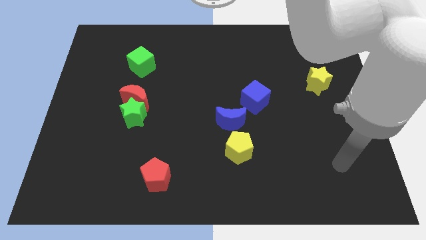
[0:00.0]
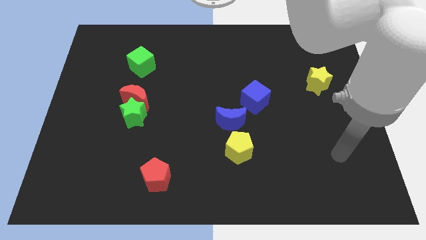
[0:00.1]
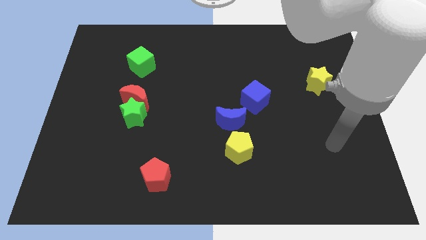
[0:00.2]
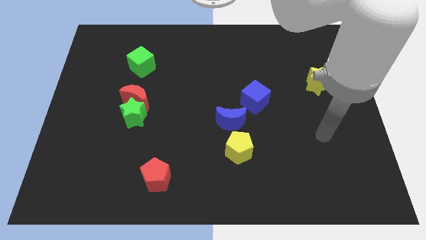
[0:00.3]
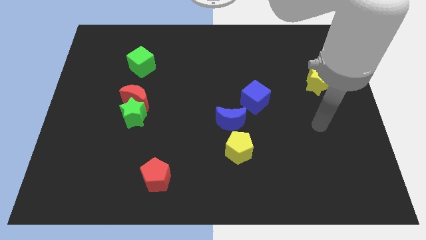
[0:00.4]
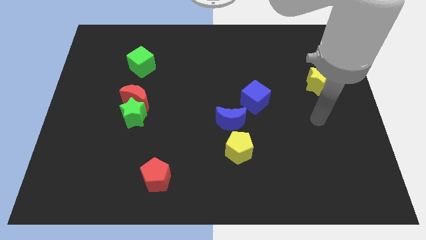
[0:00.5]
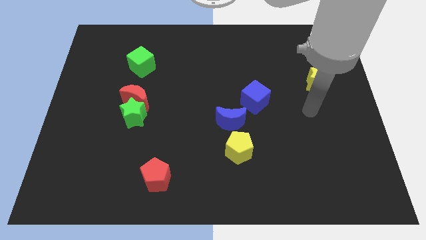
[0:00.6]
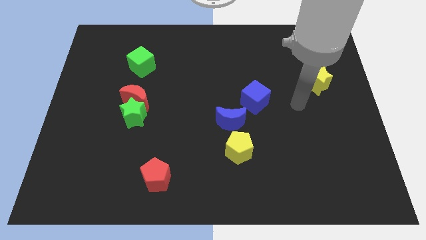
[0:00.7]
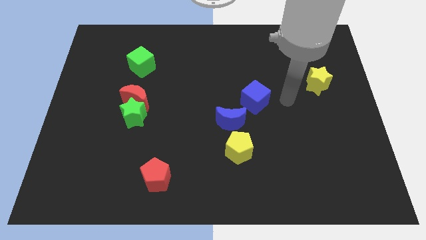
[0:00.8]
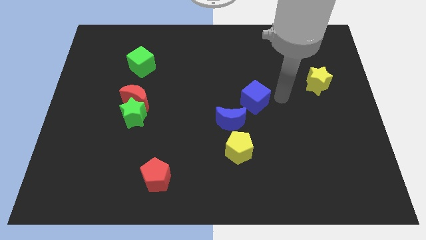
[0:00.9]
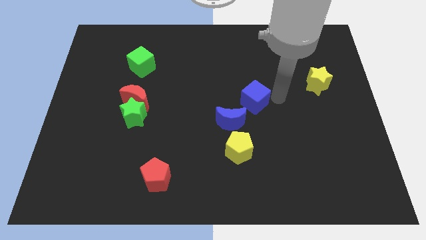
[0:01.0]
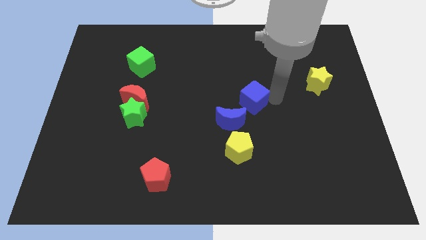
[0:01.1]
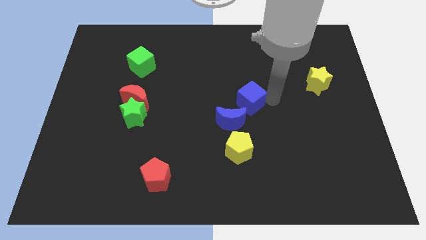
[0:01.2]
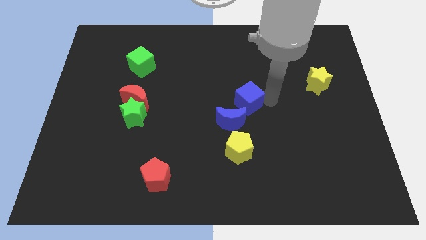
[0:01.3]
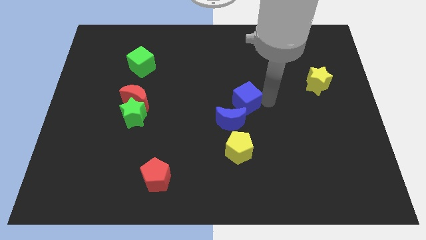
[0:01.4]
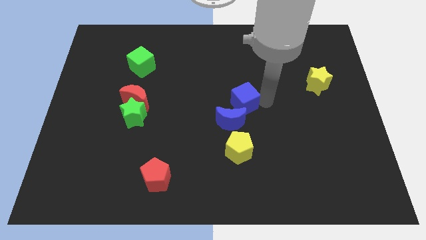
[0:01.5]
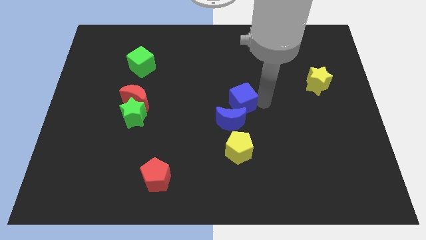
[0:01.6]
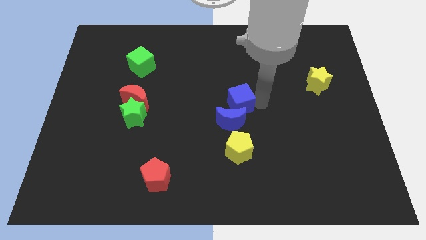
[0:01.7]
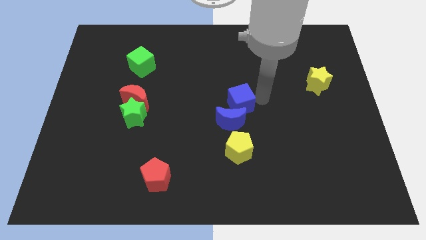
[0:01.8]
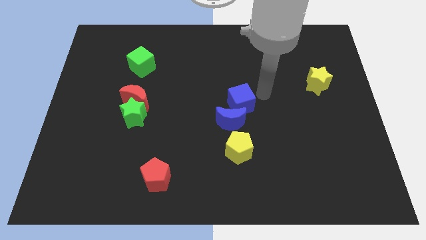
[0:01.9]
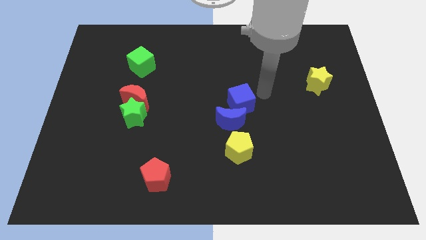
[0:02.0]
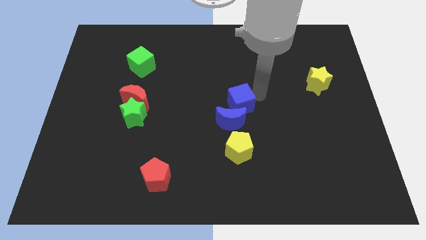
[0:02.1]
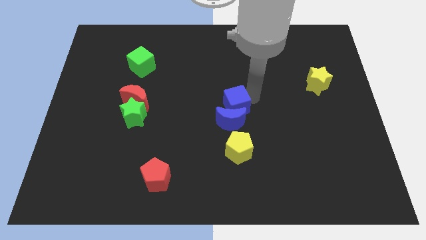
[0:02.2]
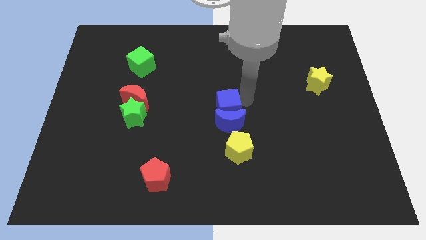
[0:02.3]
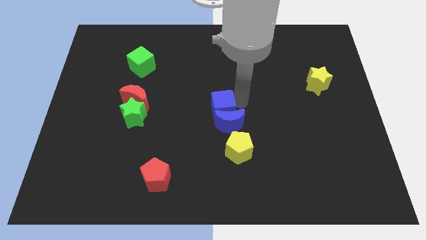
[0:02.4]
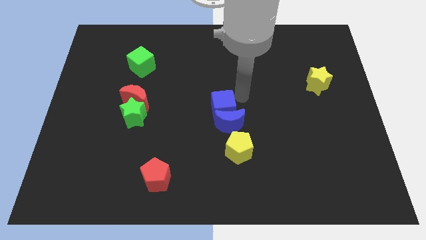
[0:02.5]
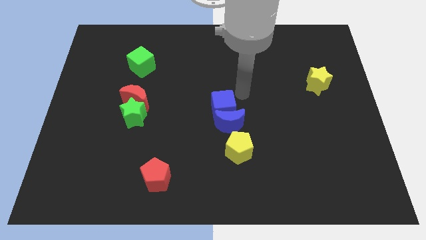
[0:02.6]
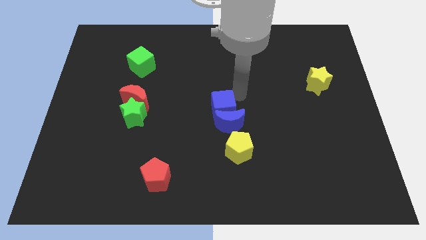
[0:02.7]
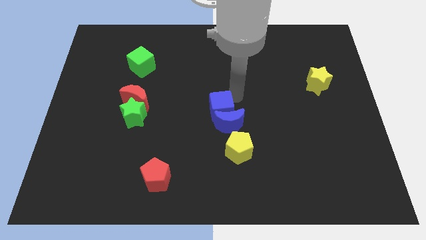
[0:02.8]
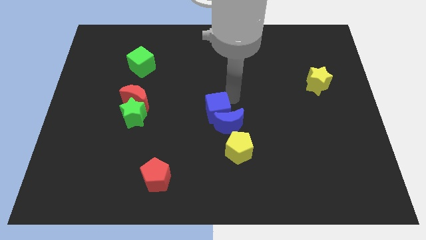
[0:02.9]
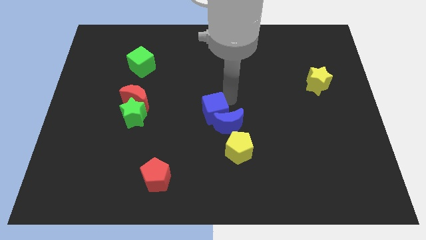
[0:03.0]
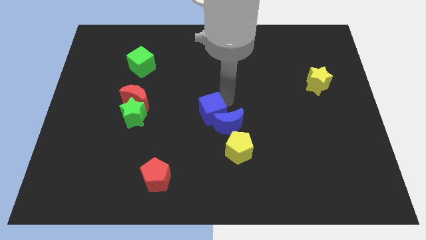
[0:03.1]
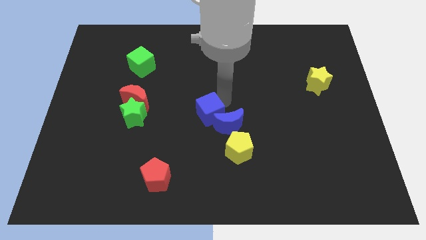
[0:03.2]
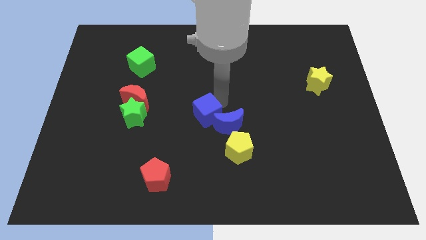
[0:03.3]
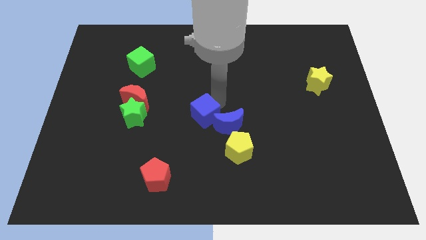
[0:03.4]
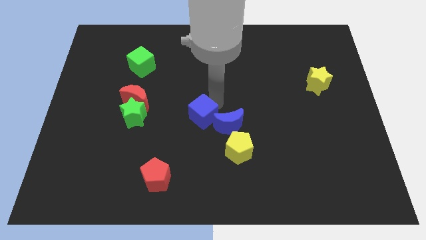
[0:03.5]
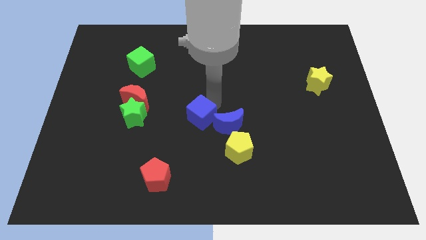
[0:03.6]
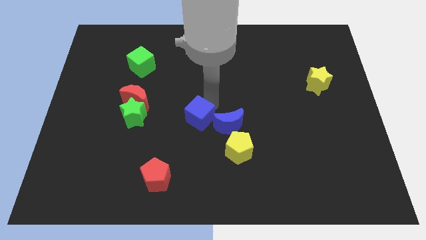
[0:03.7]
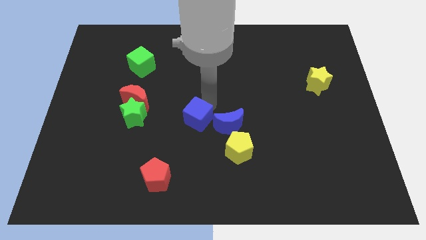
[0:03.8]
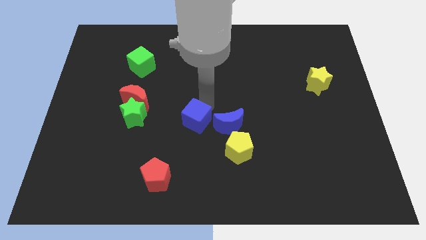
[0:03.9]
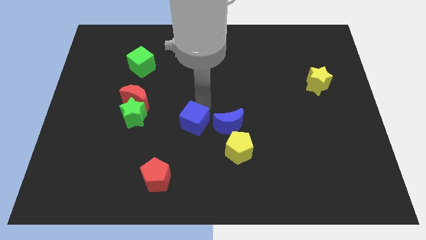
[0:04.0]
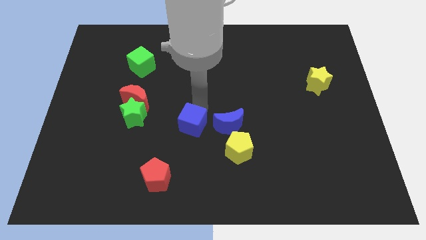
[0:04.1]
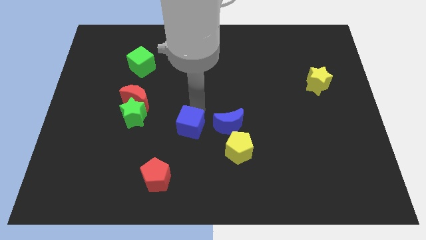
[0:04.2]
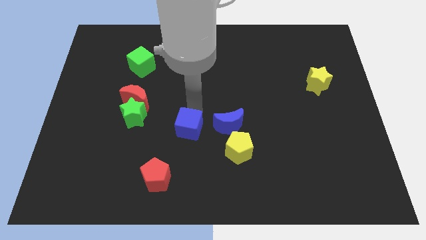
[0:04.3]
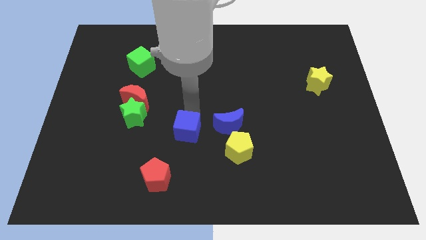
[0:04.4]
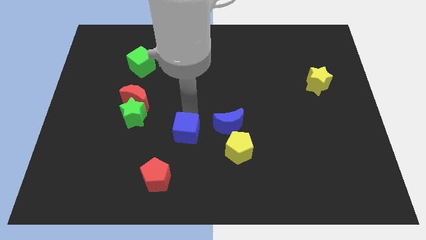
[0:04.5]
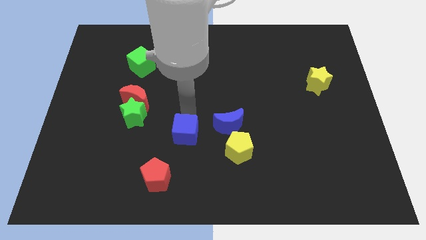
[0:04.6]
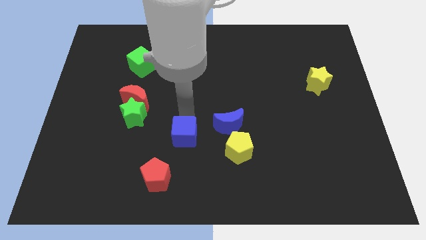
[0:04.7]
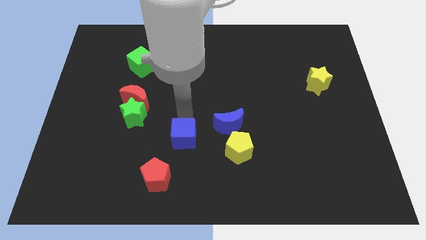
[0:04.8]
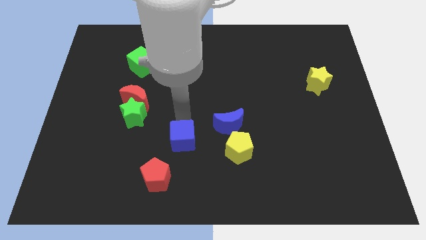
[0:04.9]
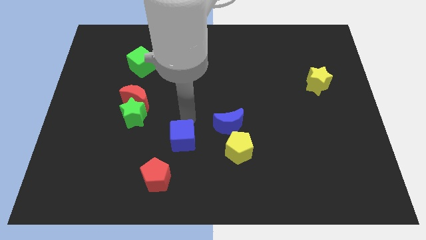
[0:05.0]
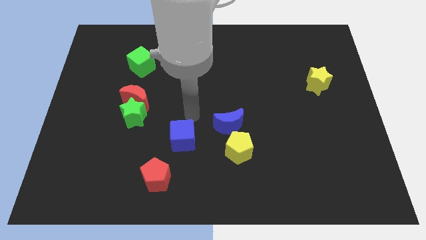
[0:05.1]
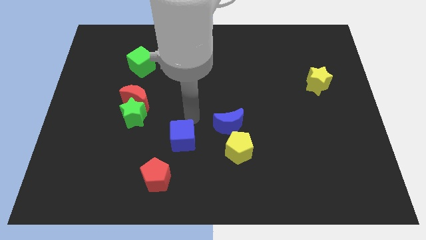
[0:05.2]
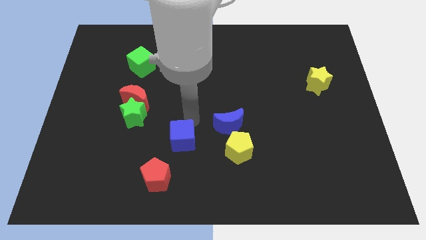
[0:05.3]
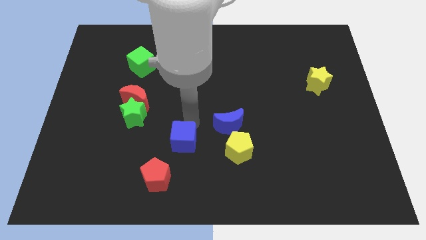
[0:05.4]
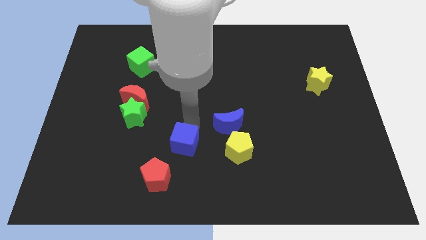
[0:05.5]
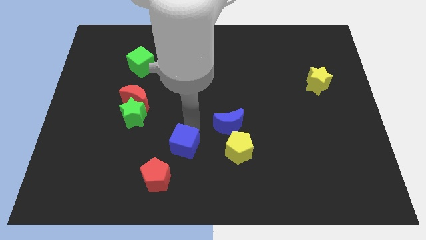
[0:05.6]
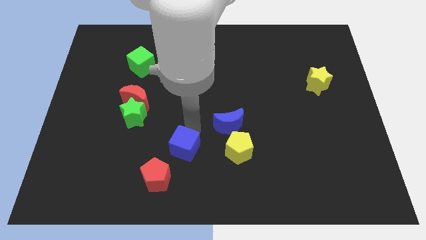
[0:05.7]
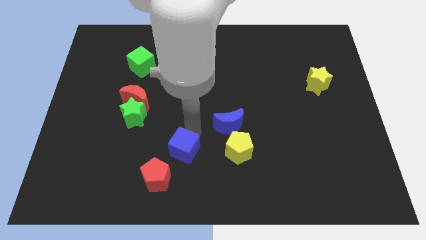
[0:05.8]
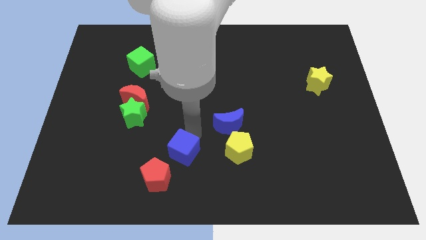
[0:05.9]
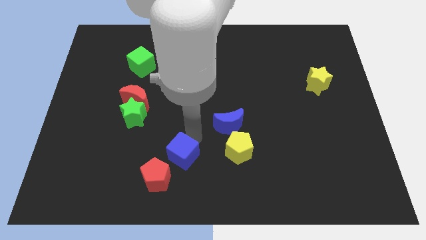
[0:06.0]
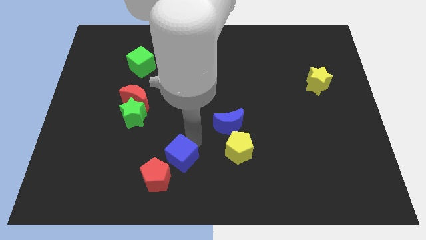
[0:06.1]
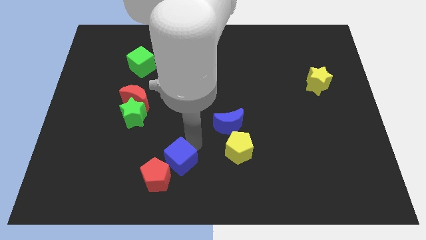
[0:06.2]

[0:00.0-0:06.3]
move the blue cube close to the red pentagon
